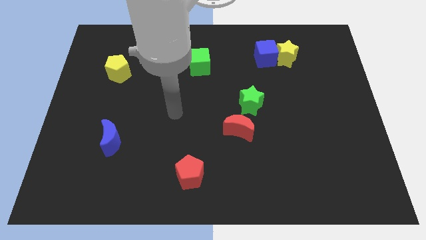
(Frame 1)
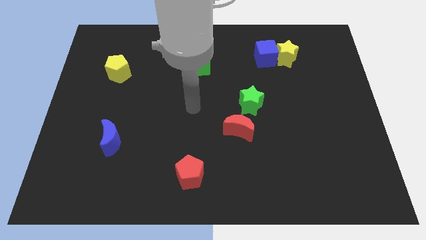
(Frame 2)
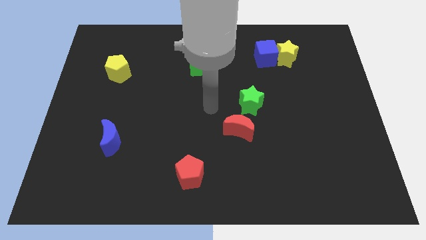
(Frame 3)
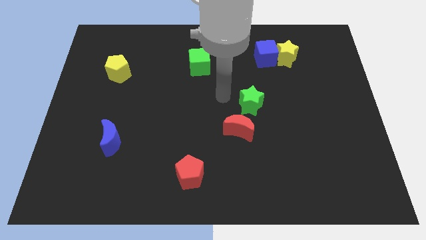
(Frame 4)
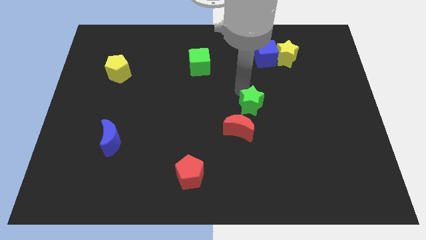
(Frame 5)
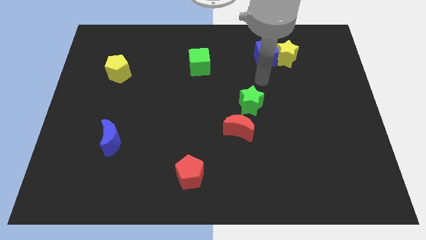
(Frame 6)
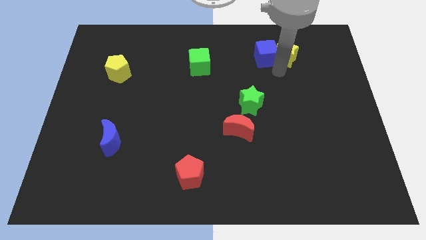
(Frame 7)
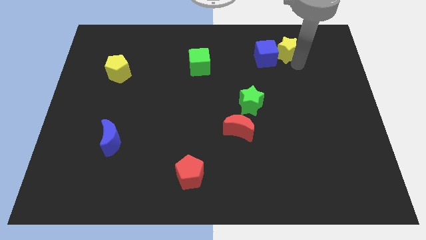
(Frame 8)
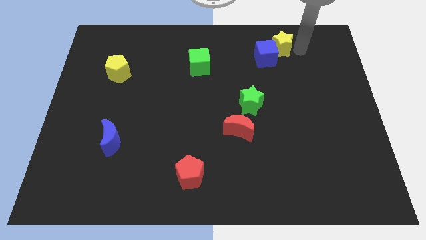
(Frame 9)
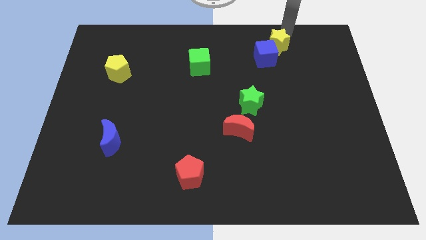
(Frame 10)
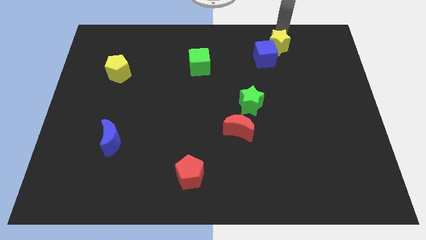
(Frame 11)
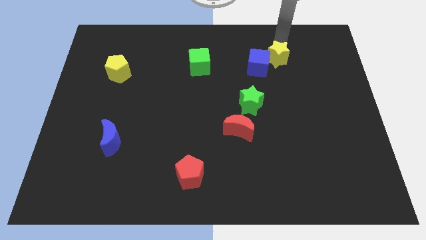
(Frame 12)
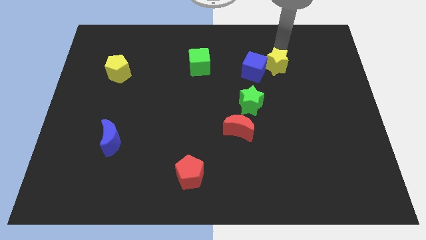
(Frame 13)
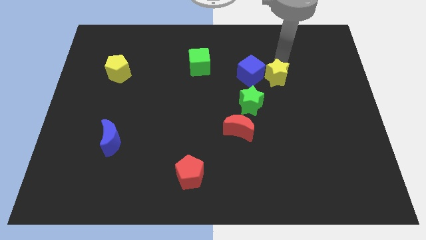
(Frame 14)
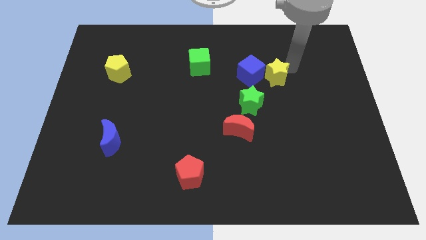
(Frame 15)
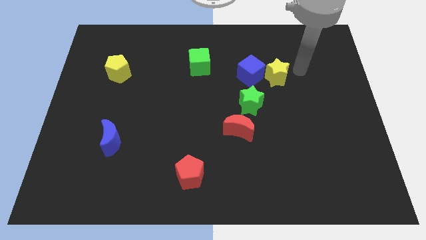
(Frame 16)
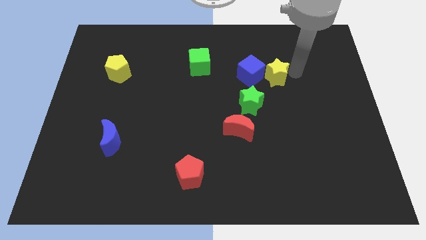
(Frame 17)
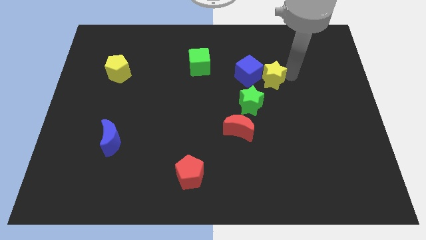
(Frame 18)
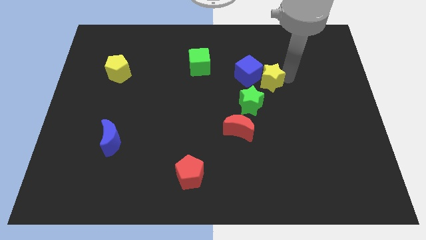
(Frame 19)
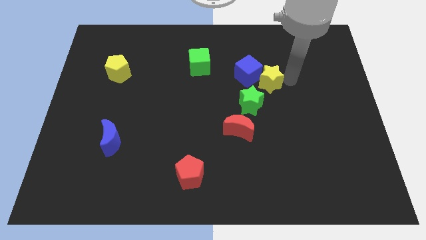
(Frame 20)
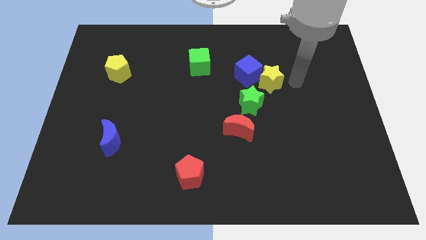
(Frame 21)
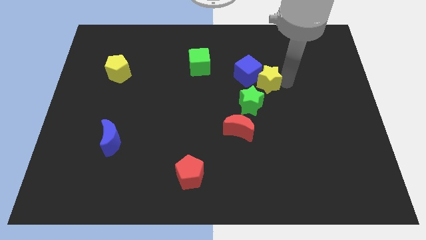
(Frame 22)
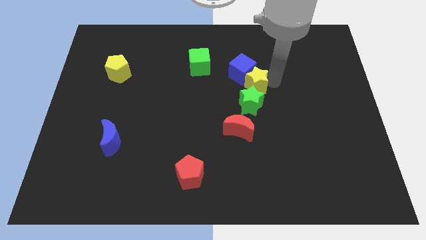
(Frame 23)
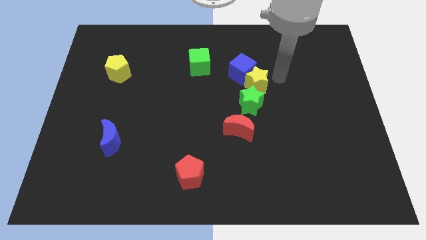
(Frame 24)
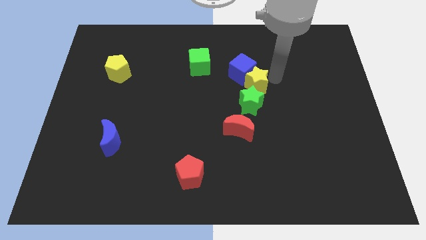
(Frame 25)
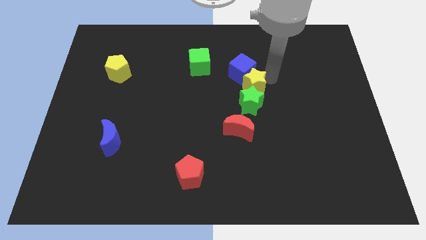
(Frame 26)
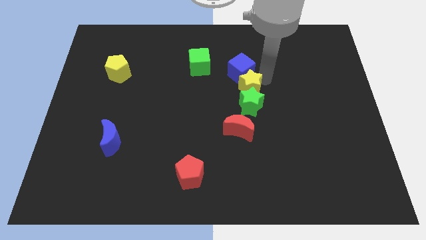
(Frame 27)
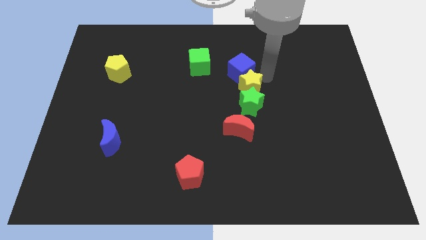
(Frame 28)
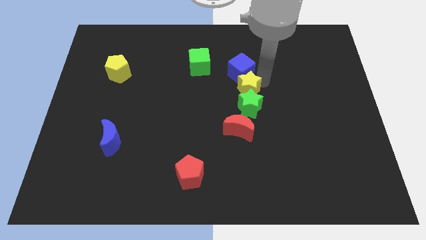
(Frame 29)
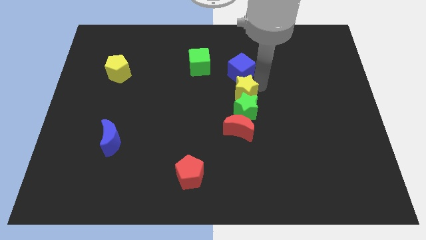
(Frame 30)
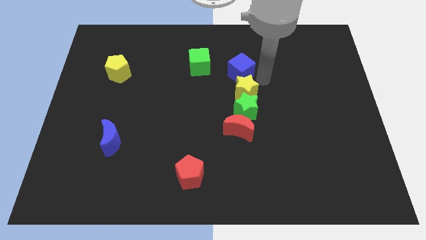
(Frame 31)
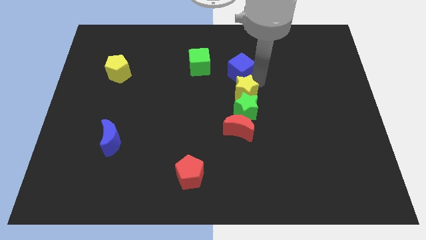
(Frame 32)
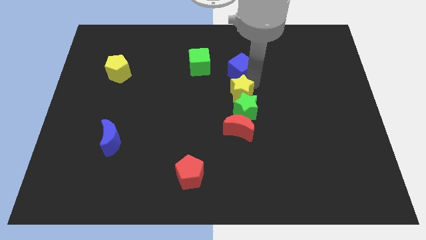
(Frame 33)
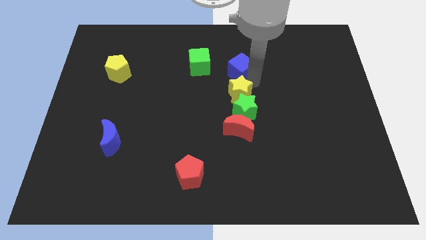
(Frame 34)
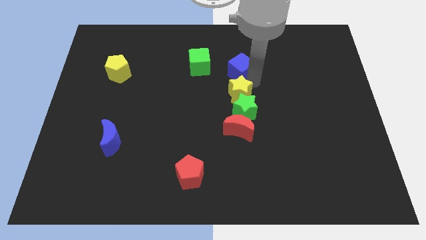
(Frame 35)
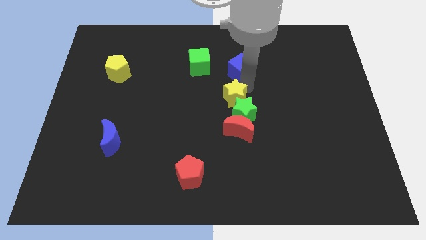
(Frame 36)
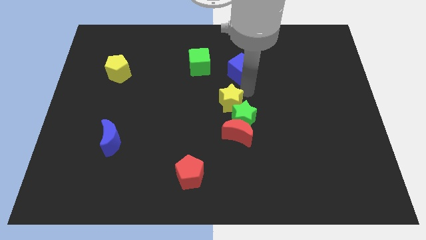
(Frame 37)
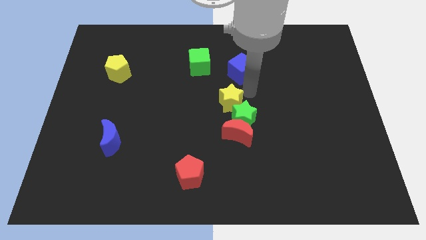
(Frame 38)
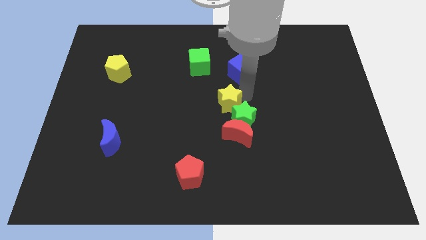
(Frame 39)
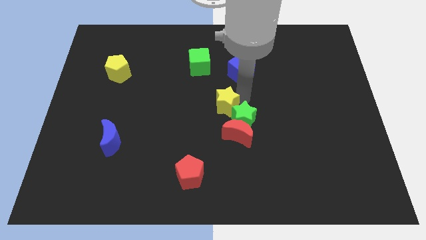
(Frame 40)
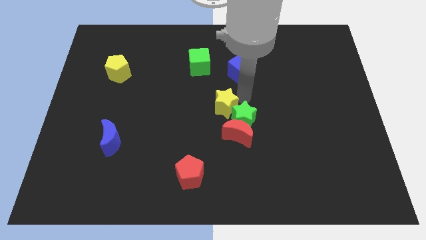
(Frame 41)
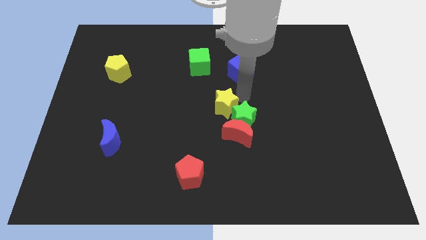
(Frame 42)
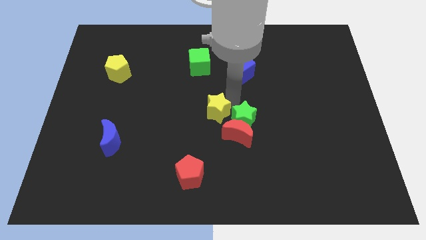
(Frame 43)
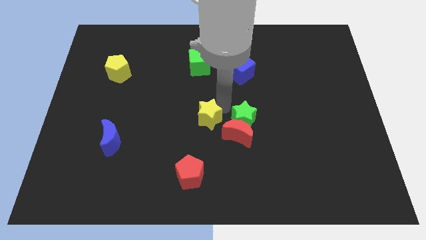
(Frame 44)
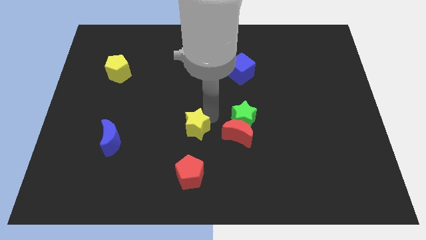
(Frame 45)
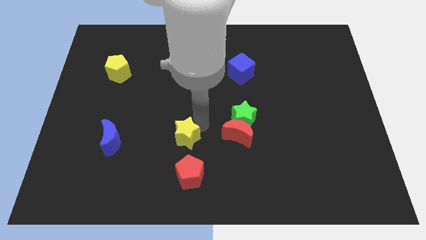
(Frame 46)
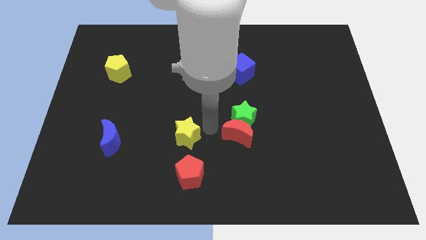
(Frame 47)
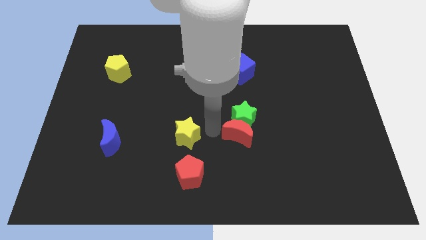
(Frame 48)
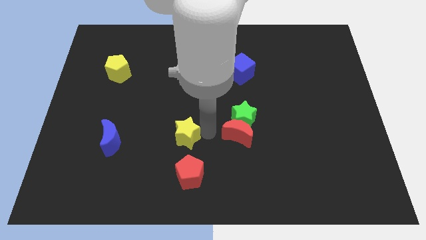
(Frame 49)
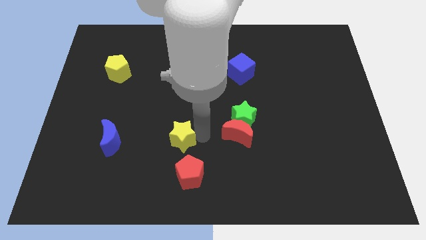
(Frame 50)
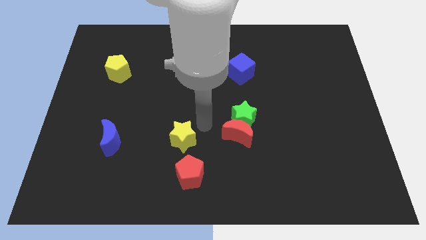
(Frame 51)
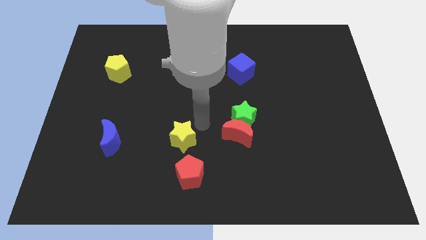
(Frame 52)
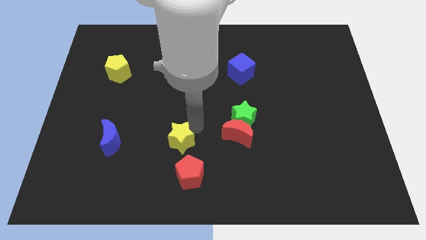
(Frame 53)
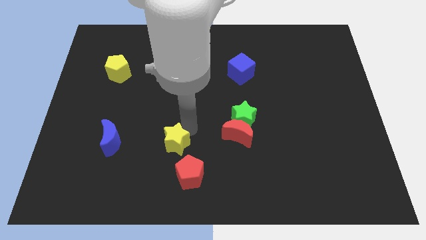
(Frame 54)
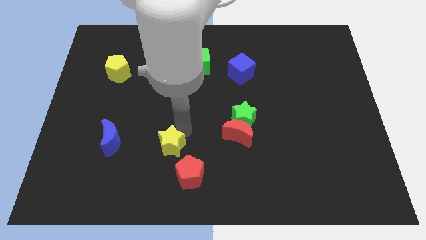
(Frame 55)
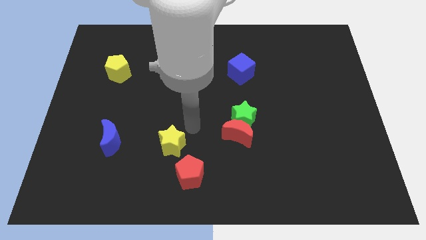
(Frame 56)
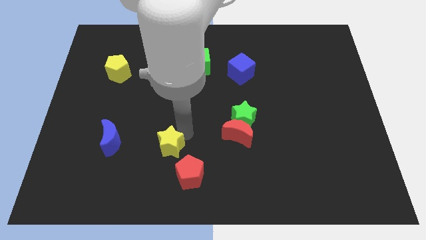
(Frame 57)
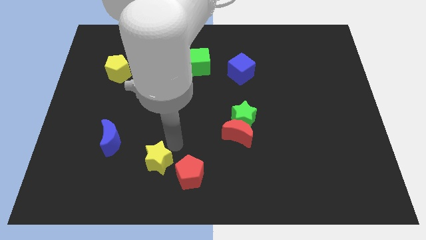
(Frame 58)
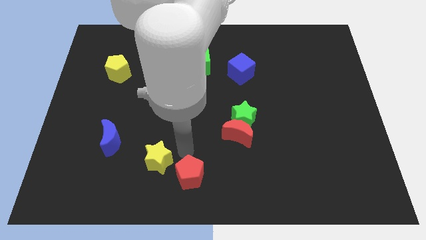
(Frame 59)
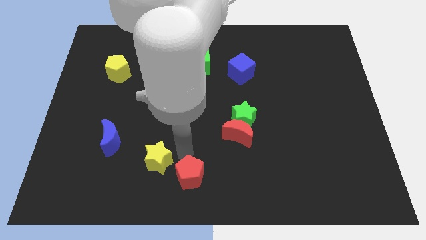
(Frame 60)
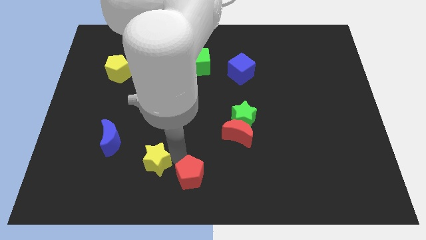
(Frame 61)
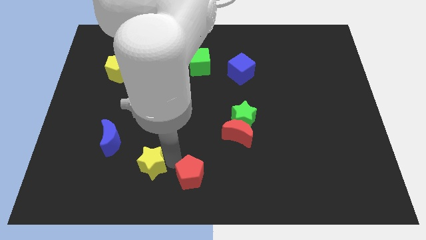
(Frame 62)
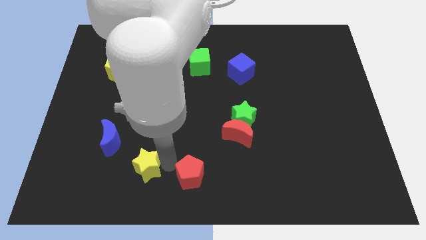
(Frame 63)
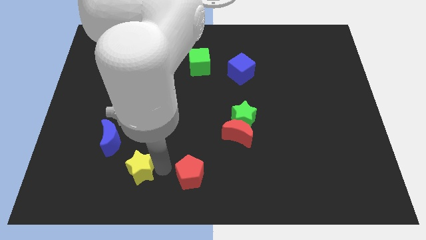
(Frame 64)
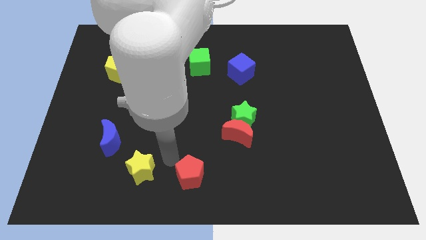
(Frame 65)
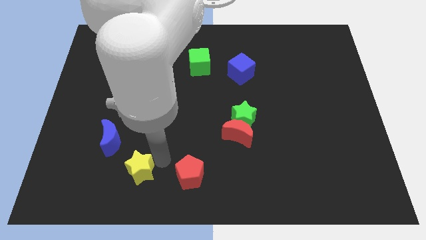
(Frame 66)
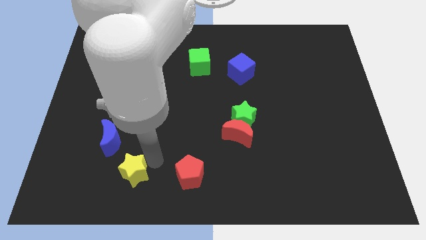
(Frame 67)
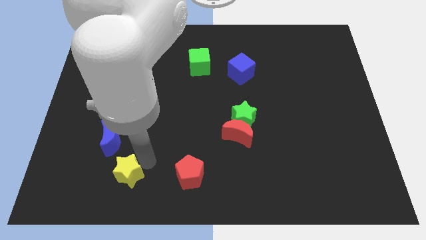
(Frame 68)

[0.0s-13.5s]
push the yellow star to the bottom of the blue moon
